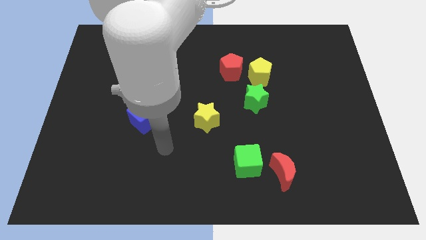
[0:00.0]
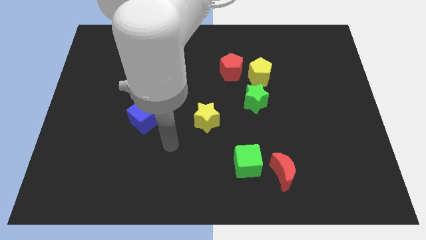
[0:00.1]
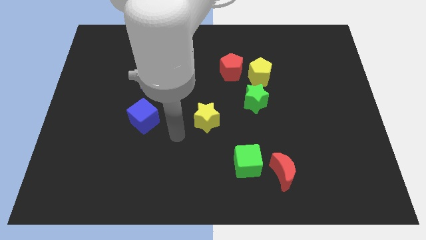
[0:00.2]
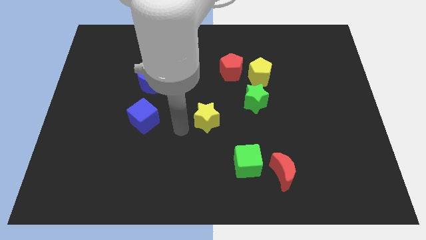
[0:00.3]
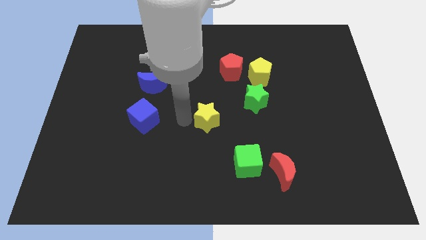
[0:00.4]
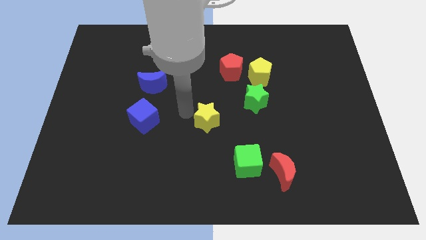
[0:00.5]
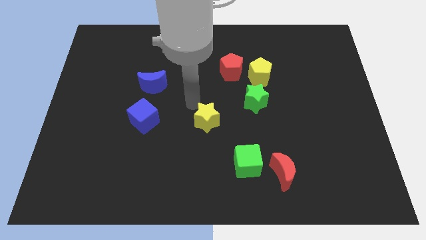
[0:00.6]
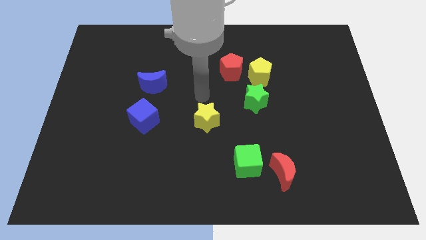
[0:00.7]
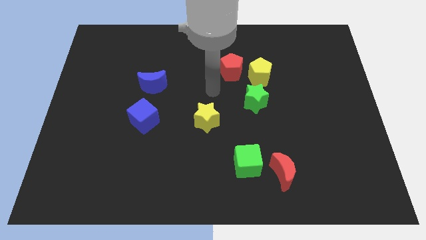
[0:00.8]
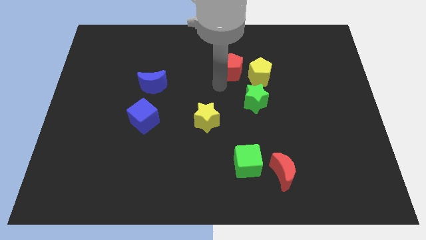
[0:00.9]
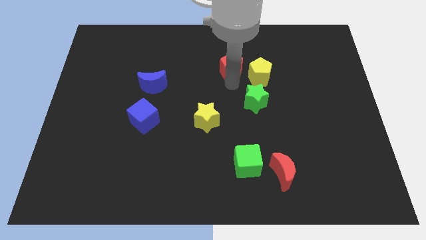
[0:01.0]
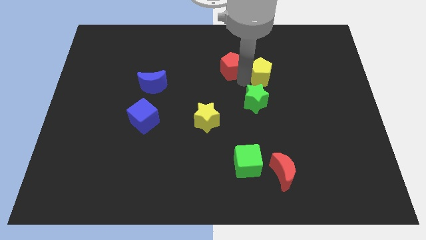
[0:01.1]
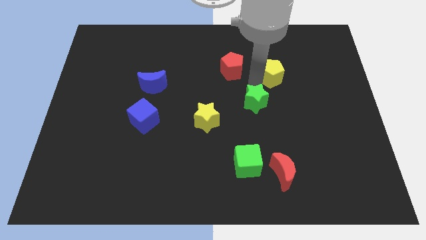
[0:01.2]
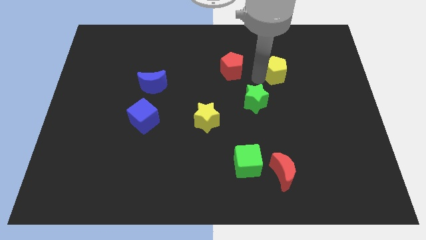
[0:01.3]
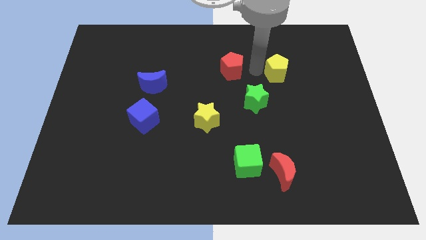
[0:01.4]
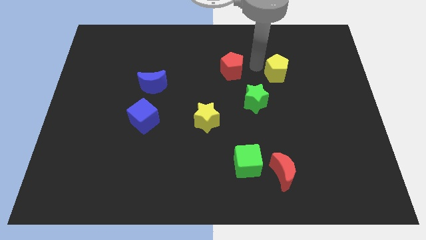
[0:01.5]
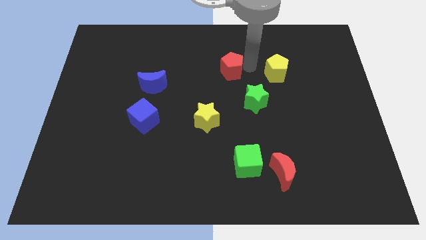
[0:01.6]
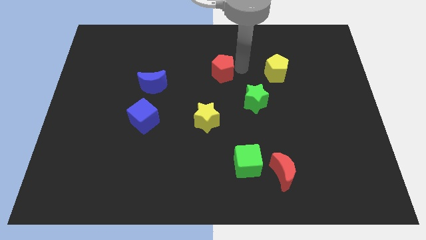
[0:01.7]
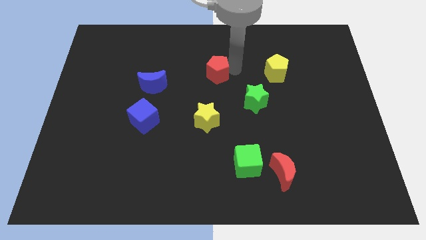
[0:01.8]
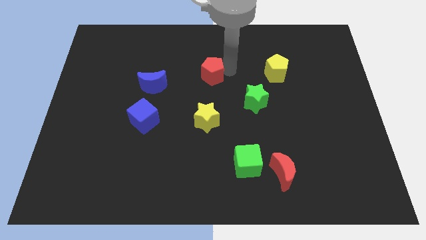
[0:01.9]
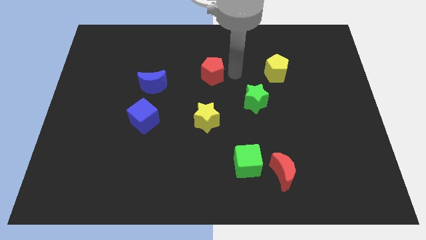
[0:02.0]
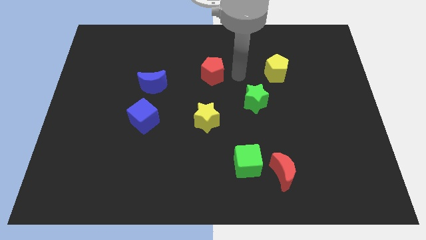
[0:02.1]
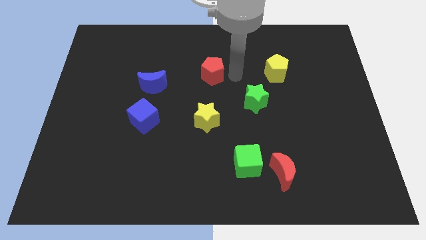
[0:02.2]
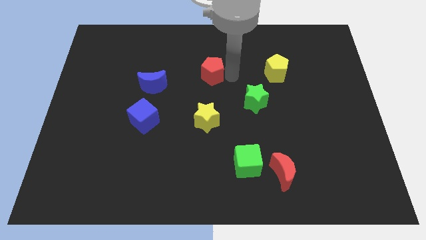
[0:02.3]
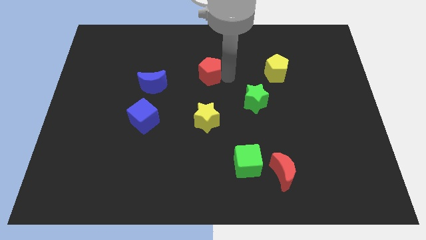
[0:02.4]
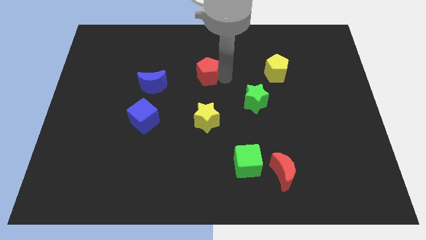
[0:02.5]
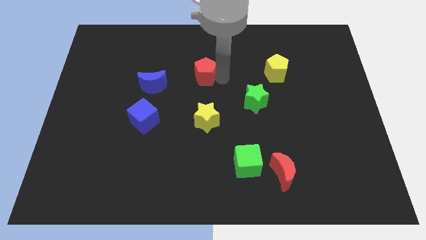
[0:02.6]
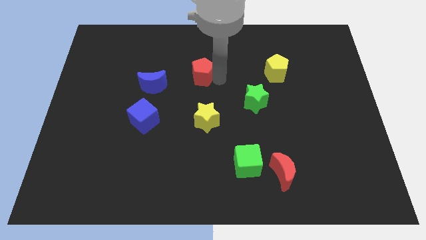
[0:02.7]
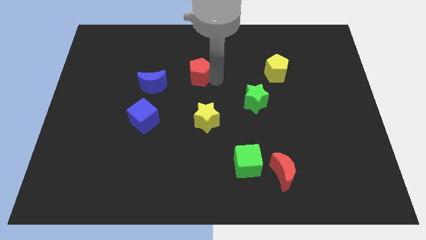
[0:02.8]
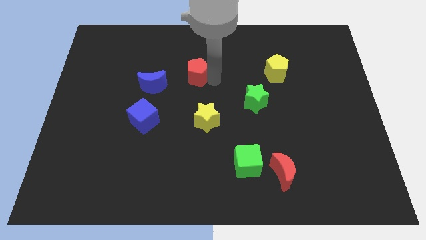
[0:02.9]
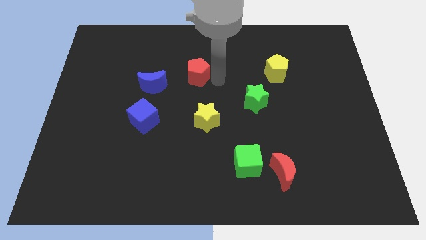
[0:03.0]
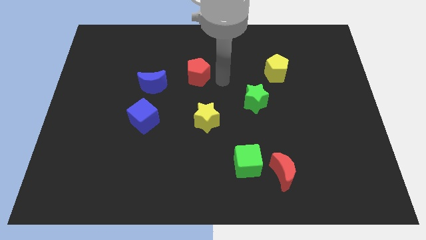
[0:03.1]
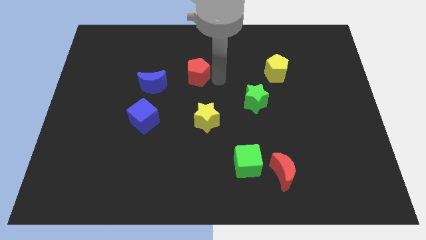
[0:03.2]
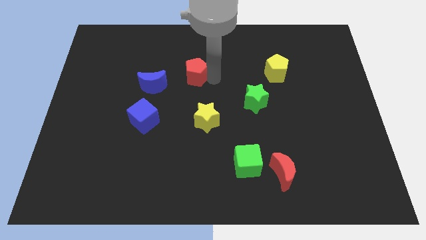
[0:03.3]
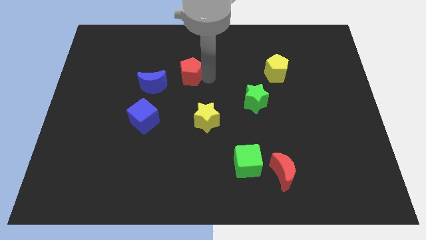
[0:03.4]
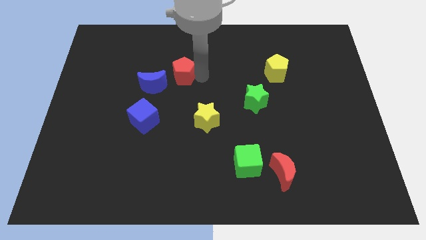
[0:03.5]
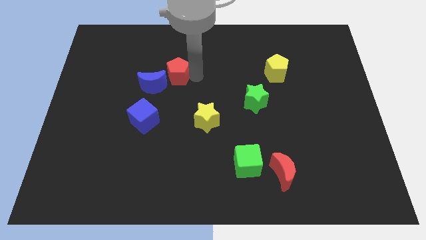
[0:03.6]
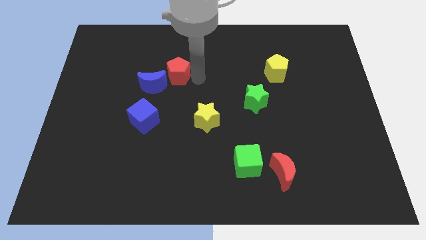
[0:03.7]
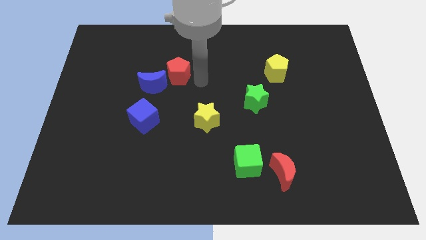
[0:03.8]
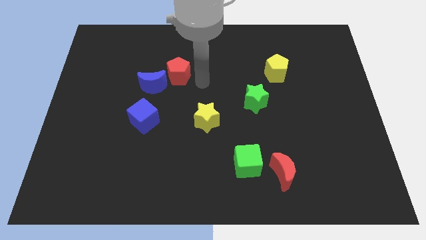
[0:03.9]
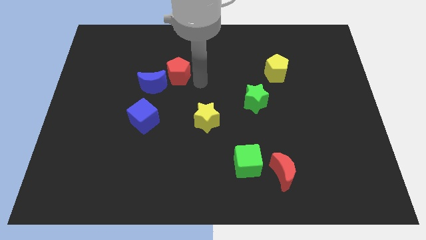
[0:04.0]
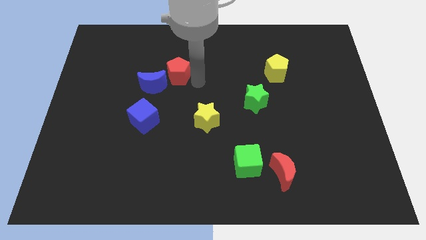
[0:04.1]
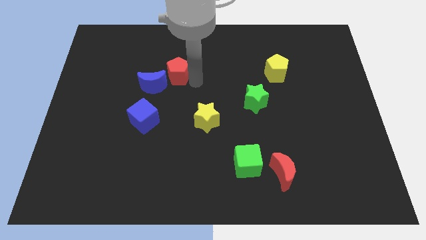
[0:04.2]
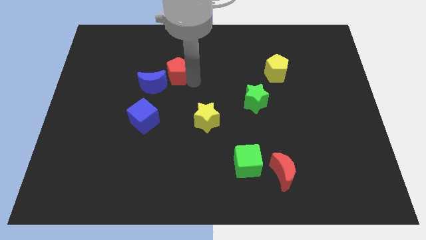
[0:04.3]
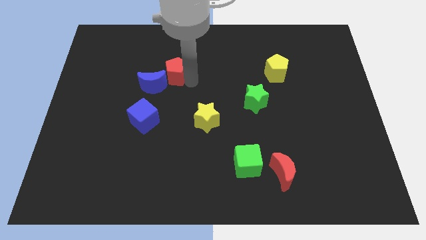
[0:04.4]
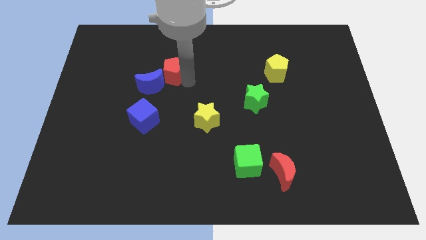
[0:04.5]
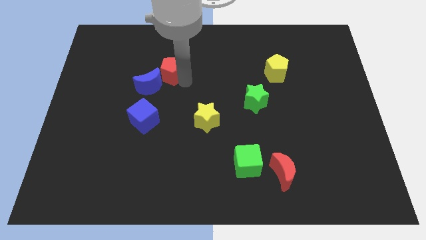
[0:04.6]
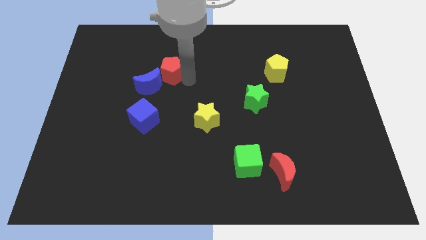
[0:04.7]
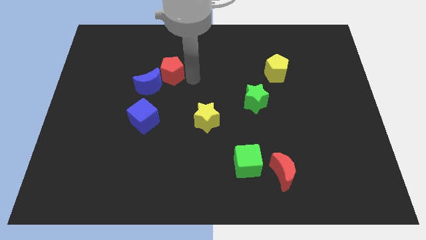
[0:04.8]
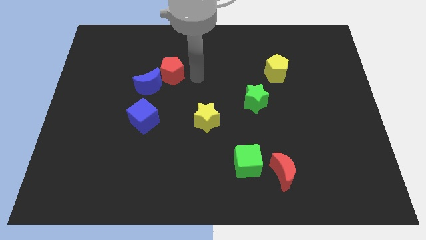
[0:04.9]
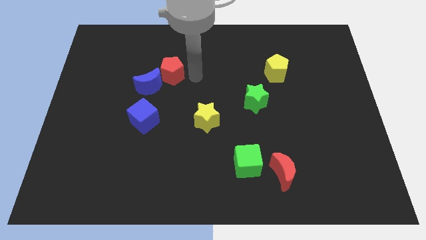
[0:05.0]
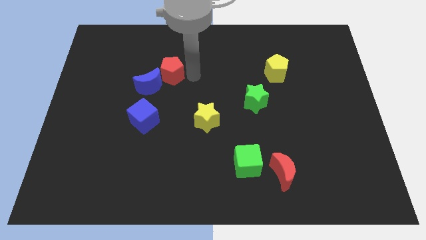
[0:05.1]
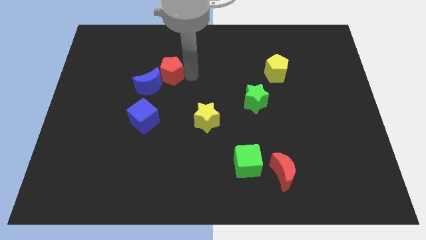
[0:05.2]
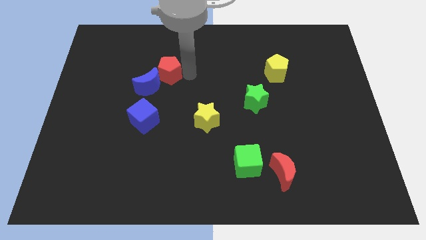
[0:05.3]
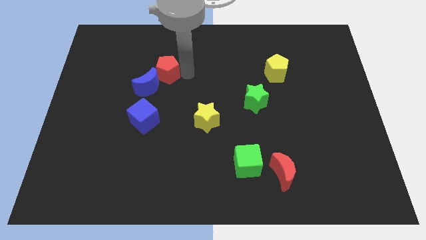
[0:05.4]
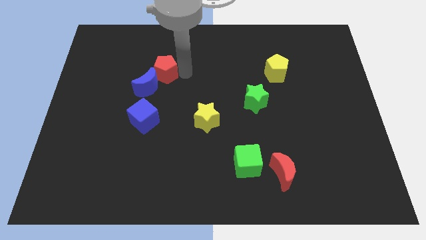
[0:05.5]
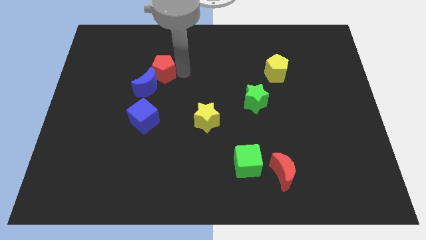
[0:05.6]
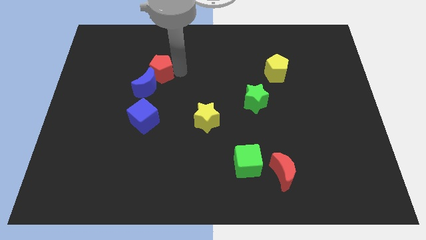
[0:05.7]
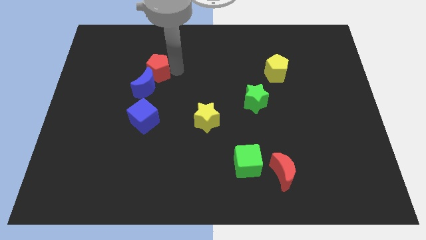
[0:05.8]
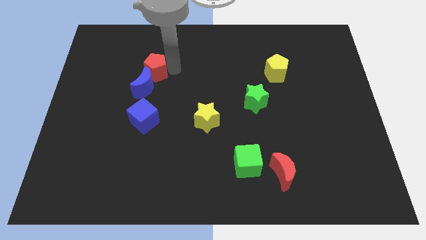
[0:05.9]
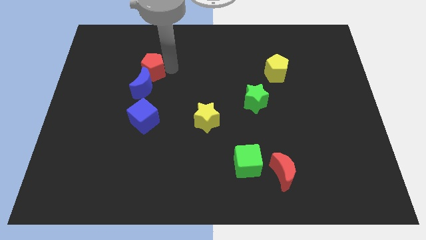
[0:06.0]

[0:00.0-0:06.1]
push the red pentagon to the left

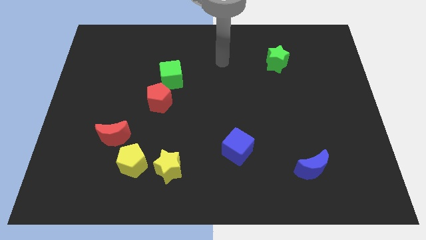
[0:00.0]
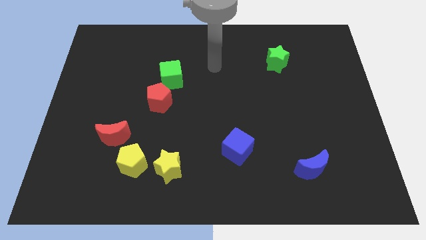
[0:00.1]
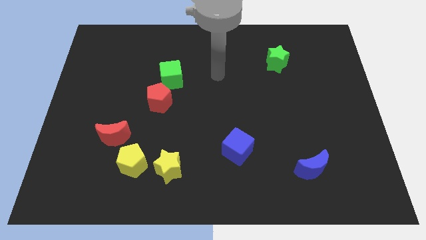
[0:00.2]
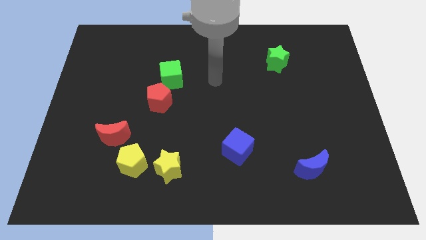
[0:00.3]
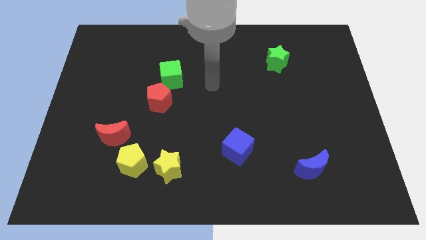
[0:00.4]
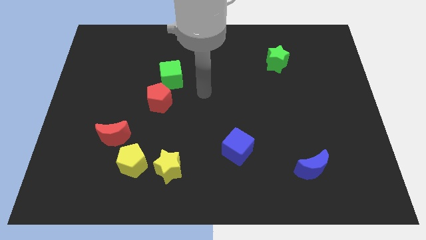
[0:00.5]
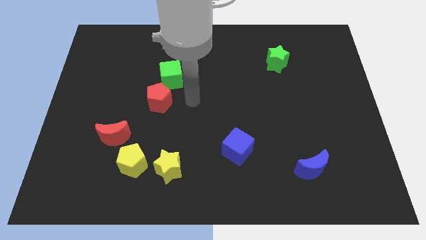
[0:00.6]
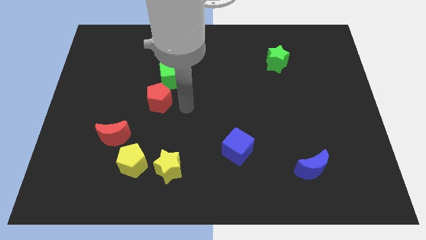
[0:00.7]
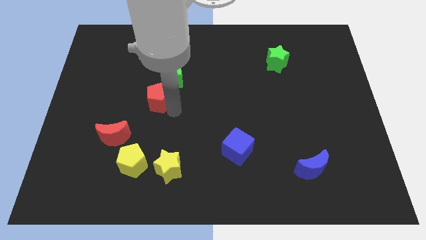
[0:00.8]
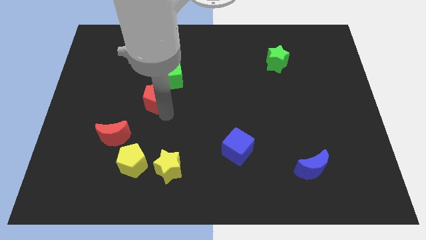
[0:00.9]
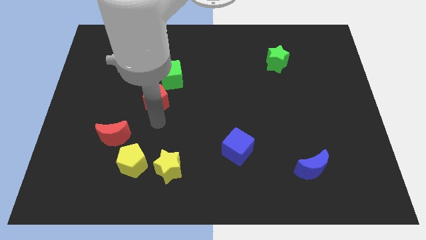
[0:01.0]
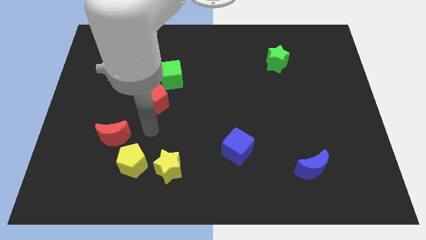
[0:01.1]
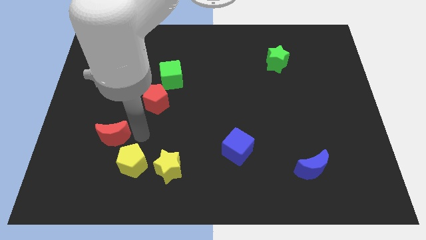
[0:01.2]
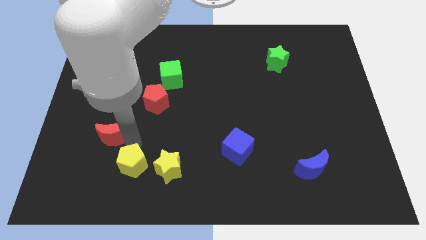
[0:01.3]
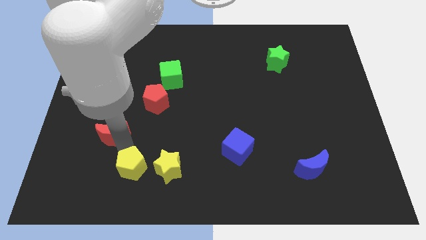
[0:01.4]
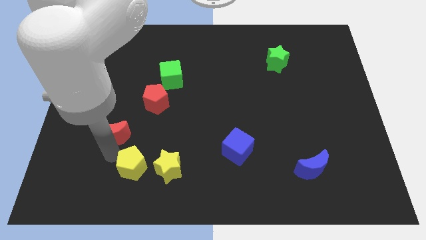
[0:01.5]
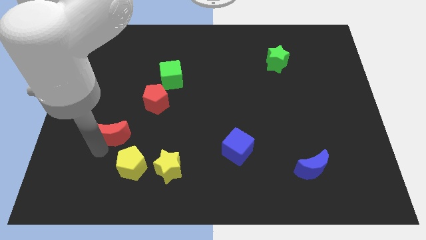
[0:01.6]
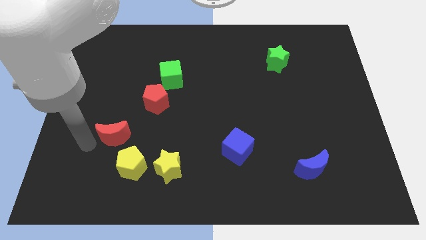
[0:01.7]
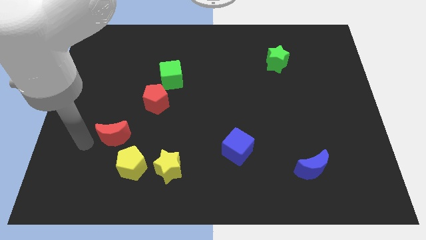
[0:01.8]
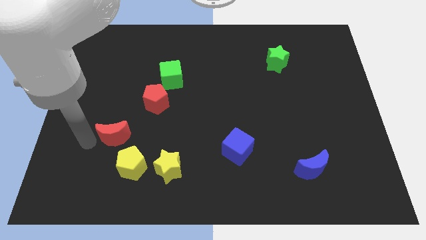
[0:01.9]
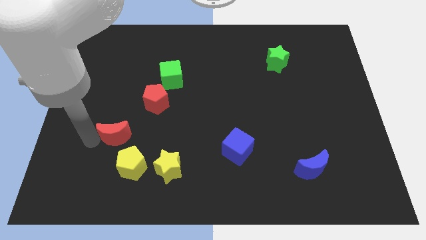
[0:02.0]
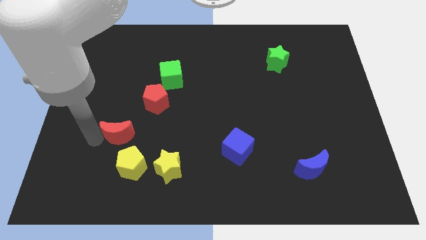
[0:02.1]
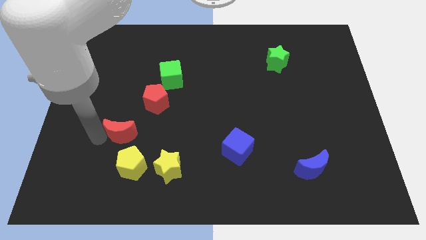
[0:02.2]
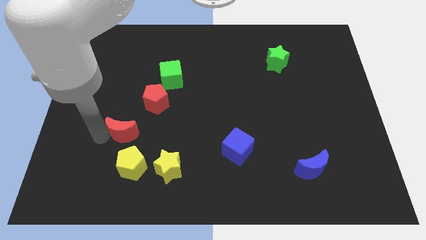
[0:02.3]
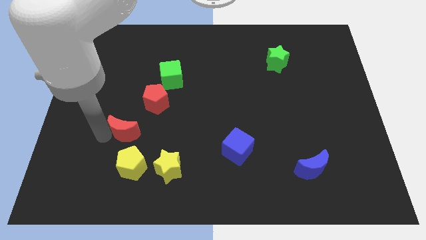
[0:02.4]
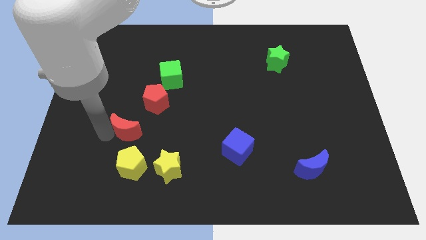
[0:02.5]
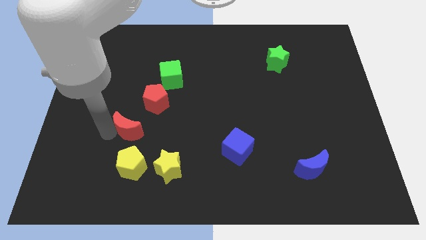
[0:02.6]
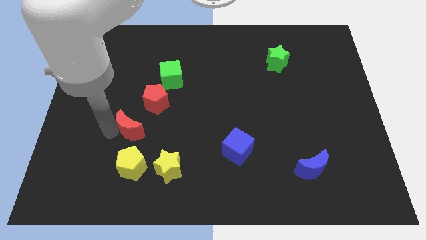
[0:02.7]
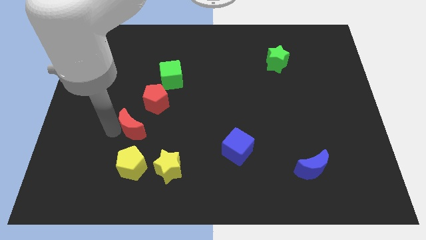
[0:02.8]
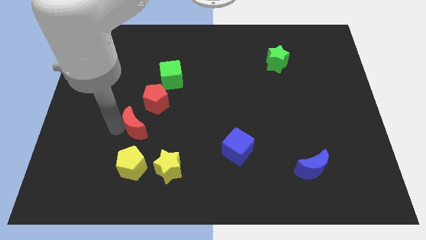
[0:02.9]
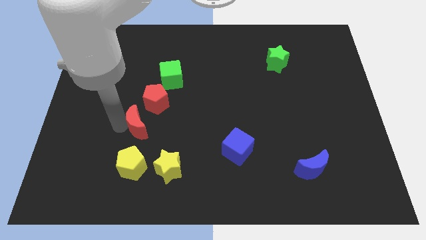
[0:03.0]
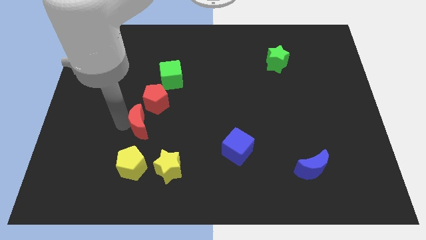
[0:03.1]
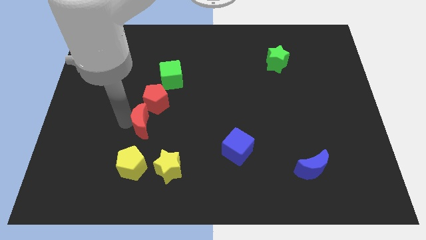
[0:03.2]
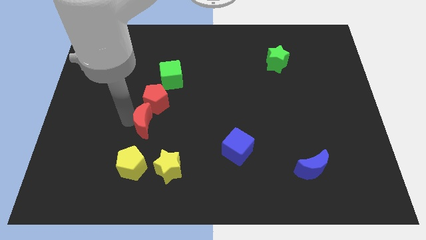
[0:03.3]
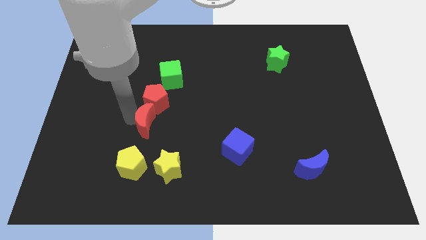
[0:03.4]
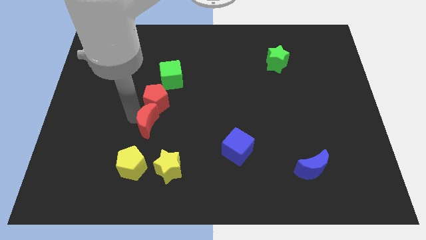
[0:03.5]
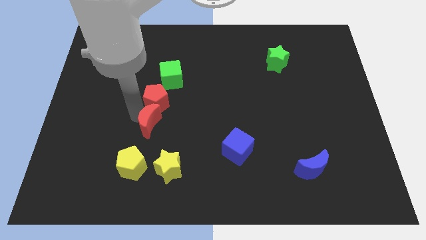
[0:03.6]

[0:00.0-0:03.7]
push the red moon a little bit to the right
